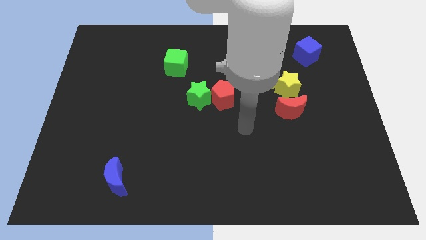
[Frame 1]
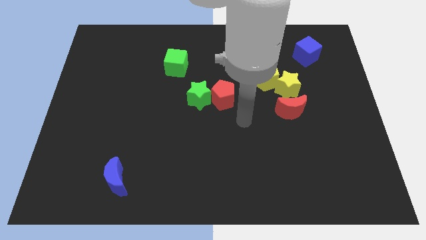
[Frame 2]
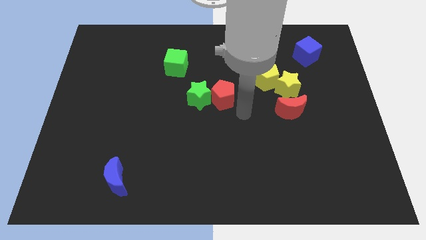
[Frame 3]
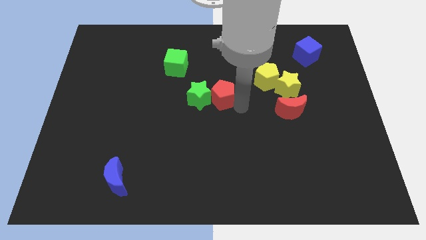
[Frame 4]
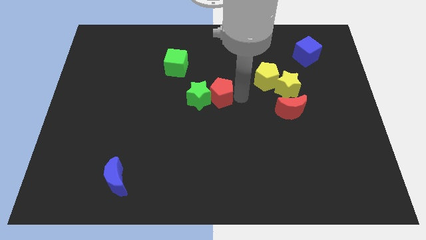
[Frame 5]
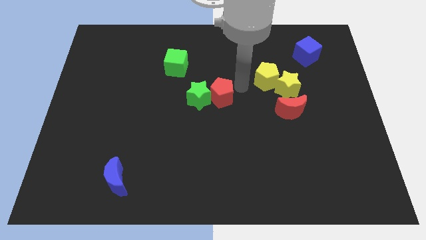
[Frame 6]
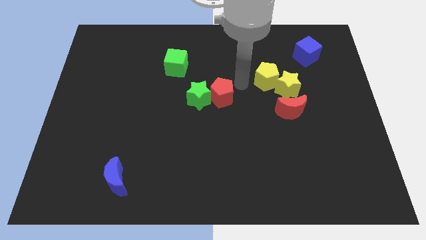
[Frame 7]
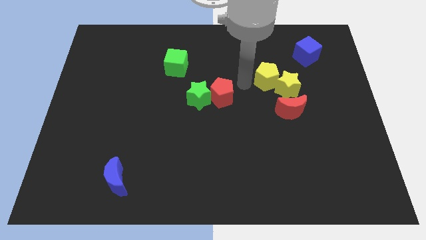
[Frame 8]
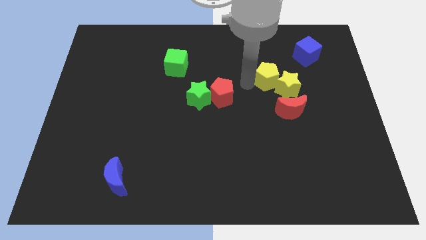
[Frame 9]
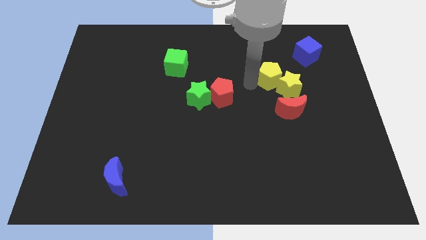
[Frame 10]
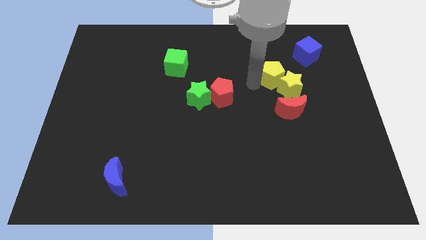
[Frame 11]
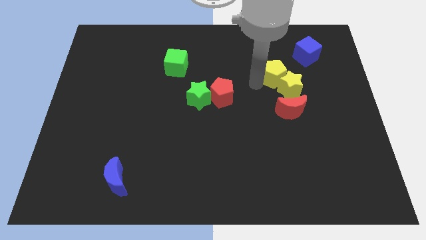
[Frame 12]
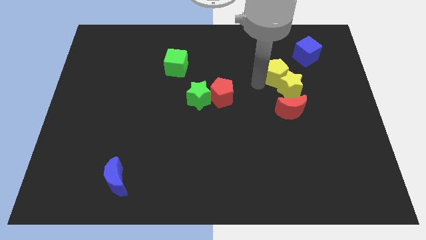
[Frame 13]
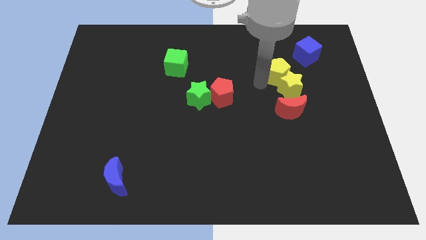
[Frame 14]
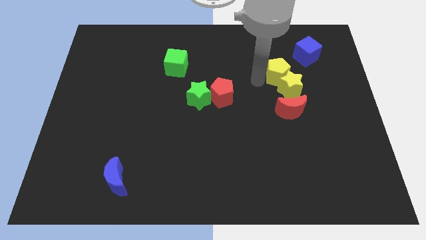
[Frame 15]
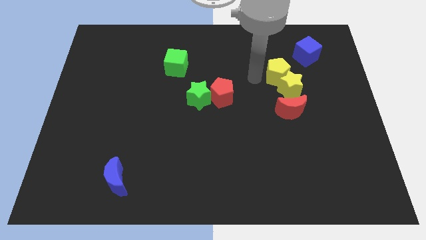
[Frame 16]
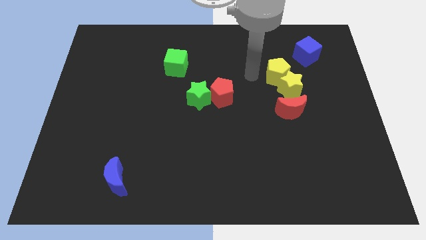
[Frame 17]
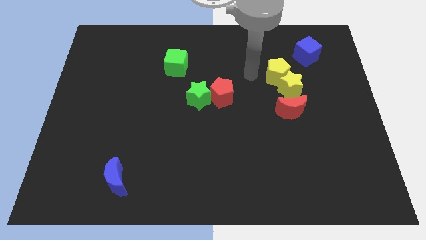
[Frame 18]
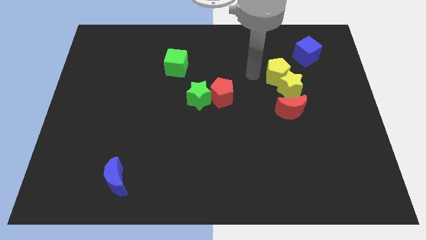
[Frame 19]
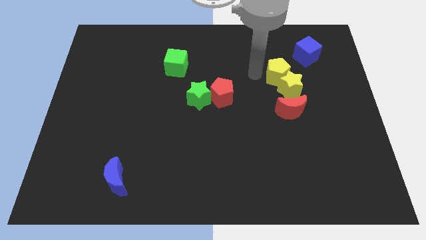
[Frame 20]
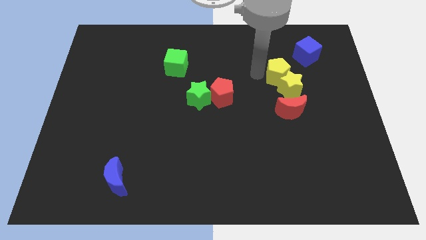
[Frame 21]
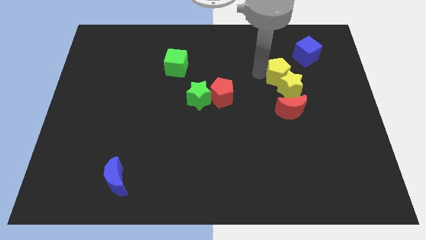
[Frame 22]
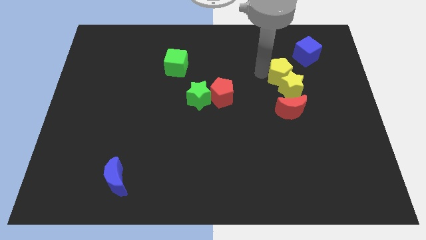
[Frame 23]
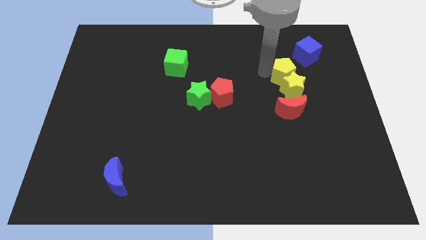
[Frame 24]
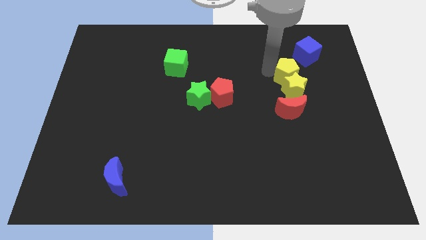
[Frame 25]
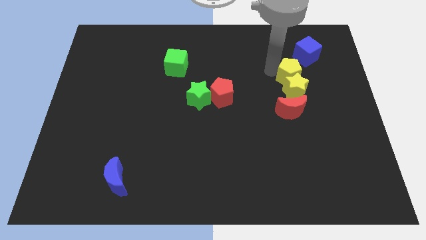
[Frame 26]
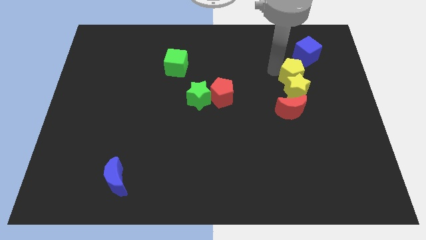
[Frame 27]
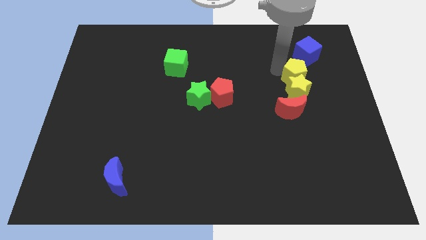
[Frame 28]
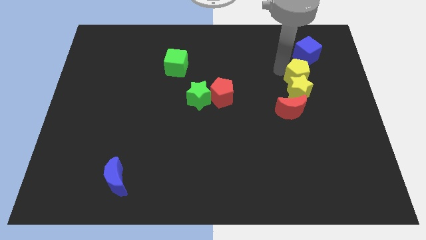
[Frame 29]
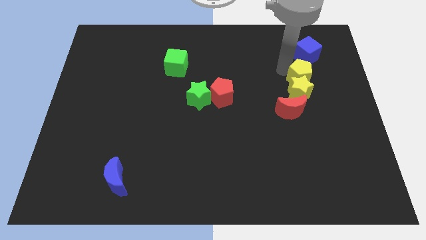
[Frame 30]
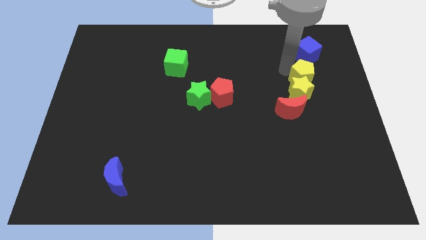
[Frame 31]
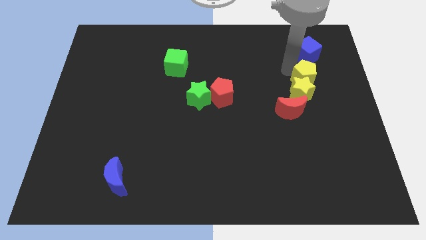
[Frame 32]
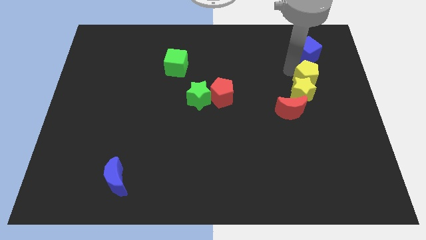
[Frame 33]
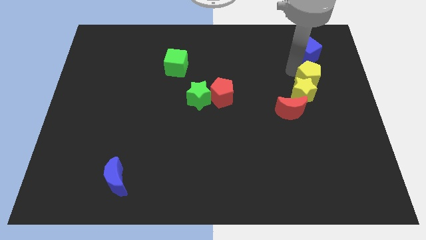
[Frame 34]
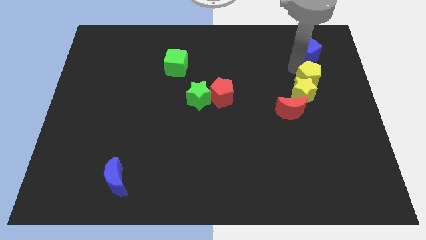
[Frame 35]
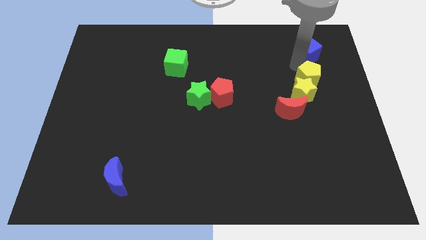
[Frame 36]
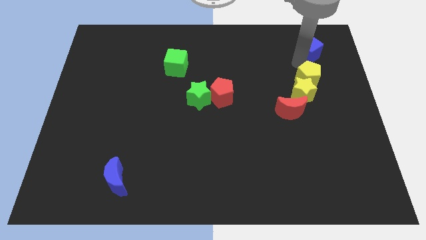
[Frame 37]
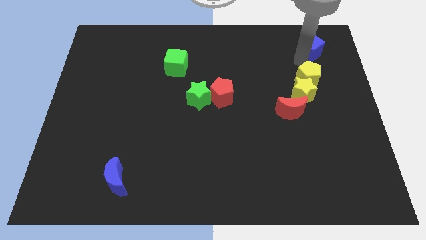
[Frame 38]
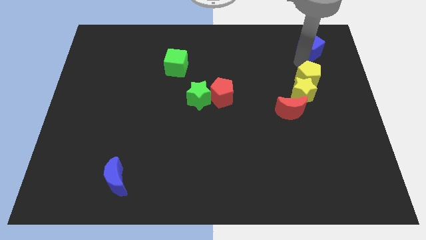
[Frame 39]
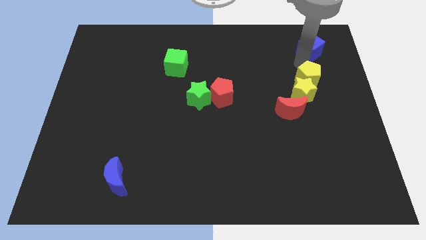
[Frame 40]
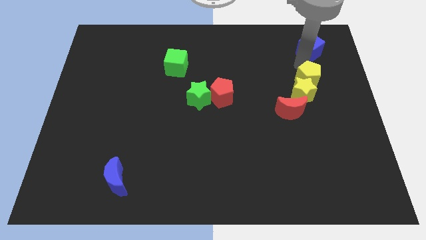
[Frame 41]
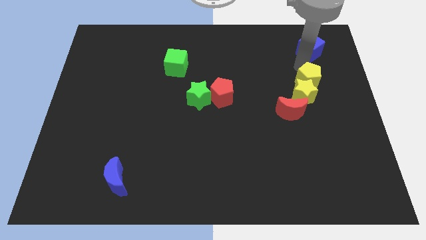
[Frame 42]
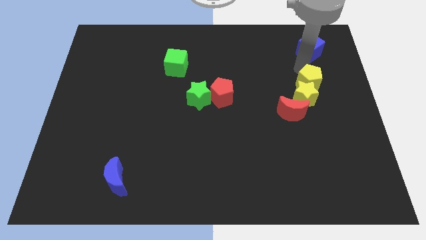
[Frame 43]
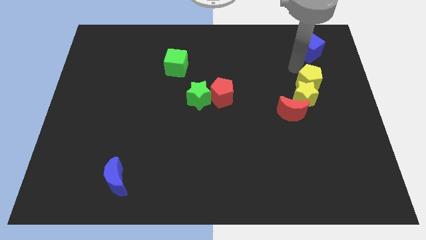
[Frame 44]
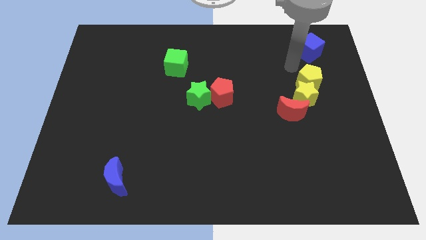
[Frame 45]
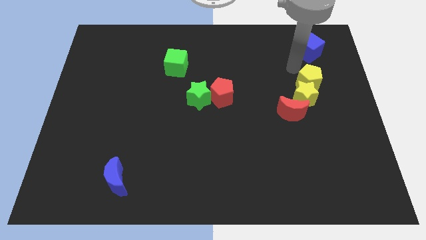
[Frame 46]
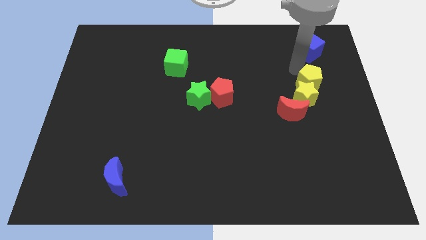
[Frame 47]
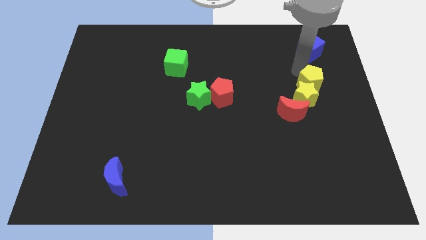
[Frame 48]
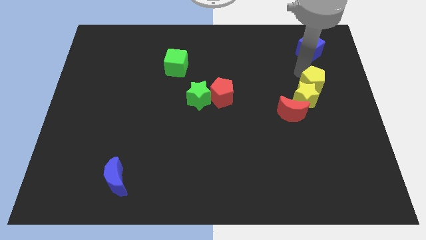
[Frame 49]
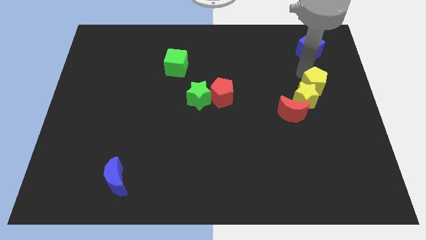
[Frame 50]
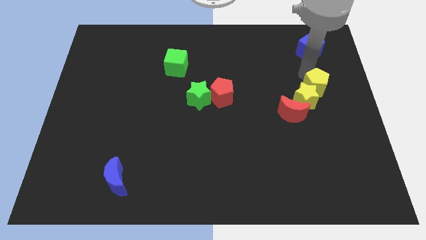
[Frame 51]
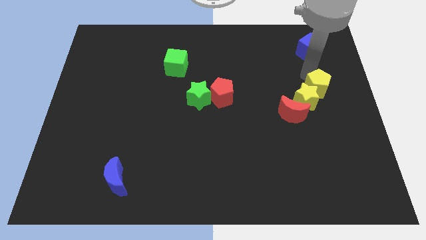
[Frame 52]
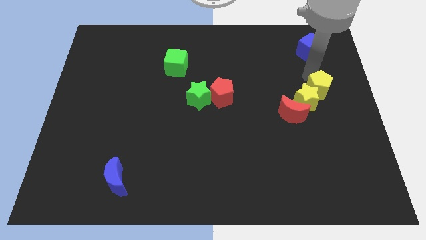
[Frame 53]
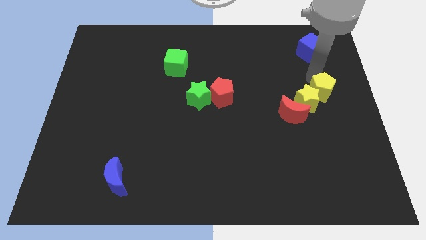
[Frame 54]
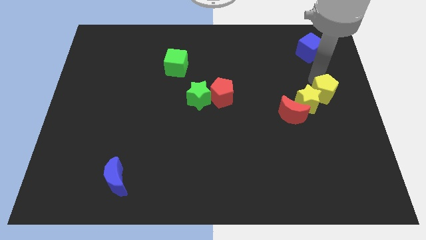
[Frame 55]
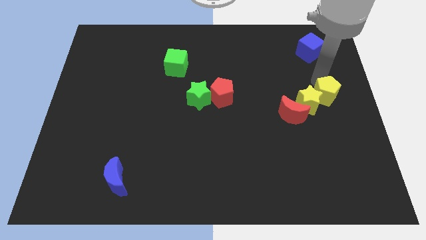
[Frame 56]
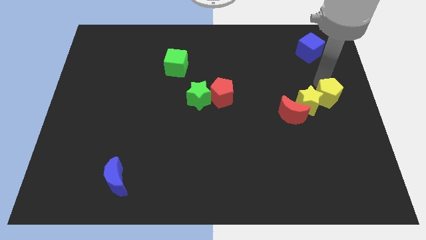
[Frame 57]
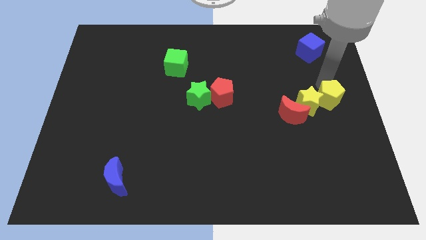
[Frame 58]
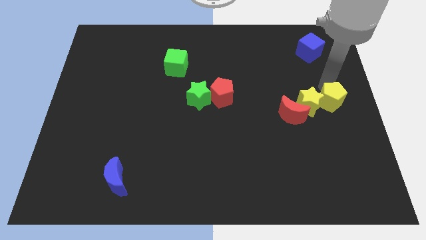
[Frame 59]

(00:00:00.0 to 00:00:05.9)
slide the yellow pentagon just right of the red moon

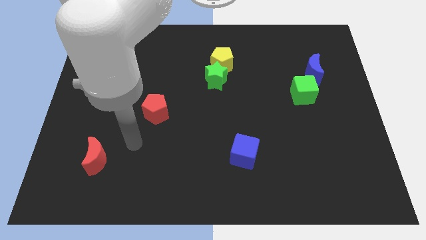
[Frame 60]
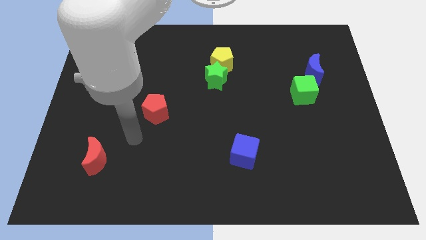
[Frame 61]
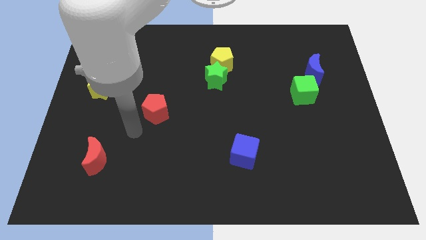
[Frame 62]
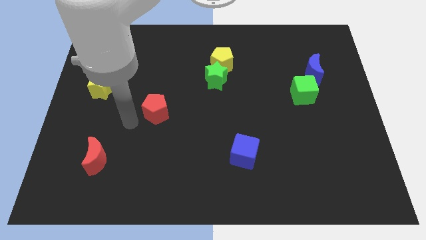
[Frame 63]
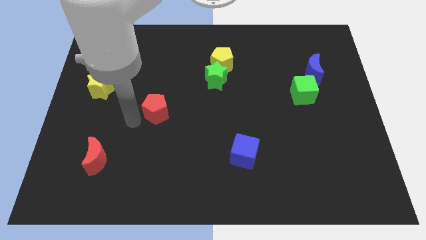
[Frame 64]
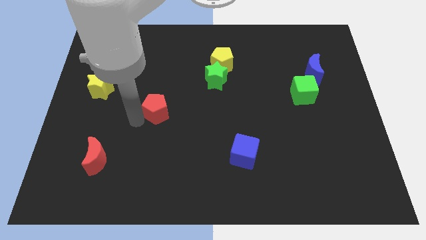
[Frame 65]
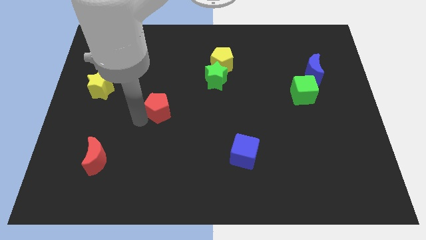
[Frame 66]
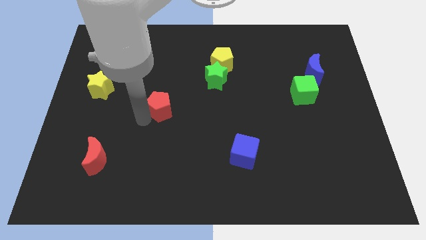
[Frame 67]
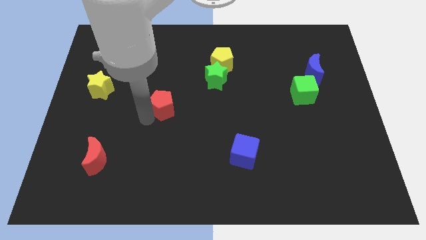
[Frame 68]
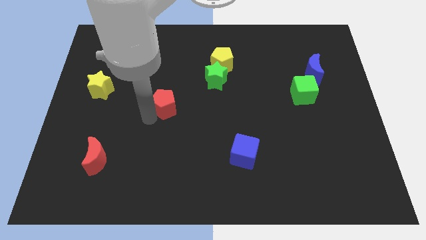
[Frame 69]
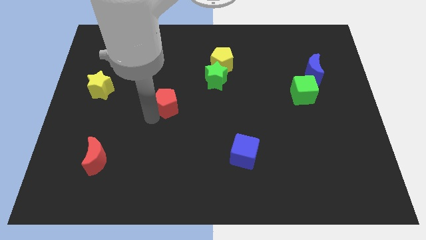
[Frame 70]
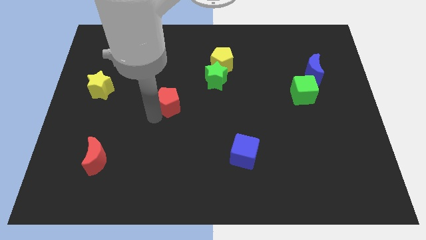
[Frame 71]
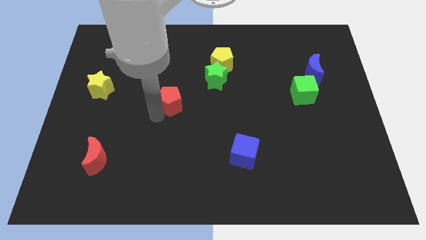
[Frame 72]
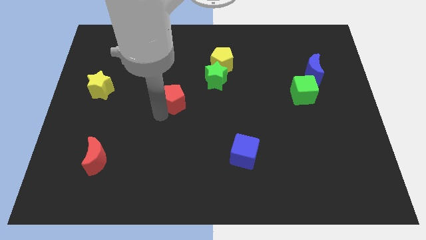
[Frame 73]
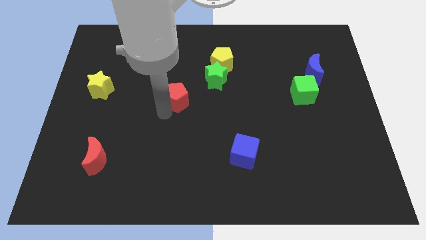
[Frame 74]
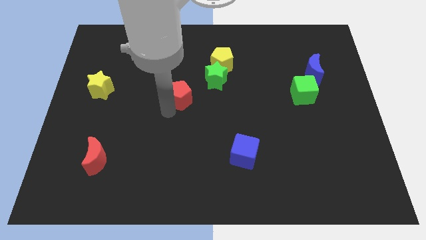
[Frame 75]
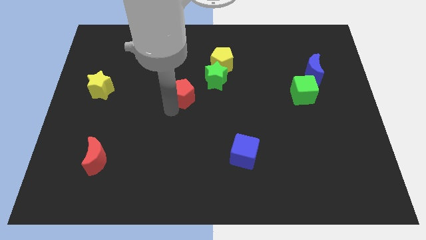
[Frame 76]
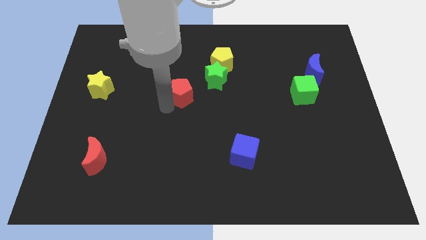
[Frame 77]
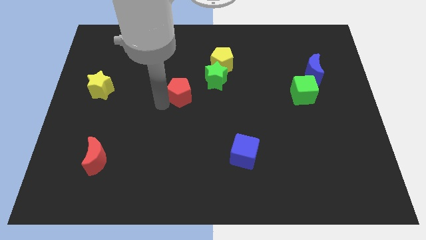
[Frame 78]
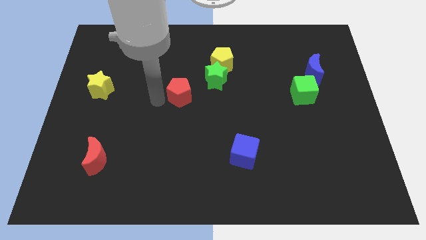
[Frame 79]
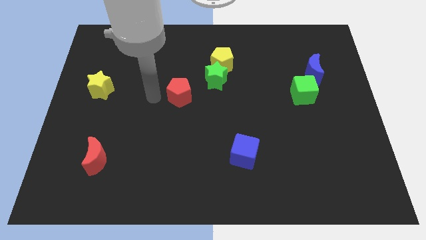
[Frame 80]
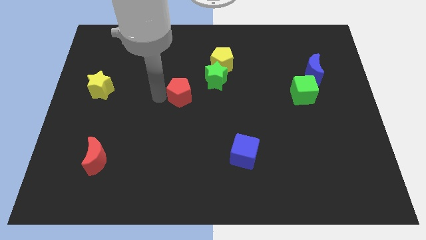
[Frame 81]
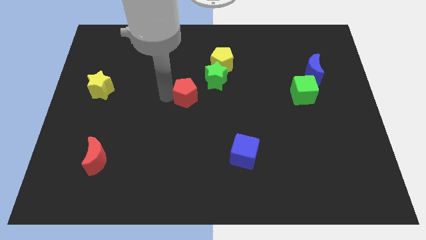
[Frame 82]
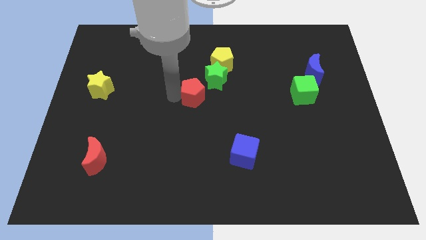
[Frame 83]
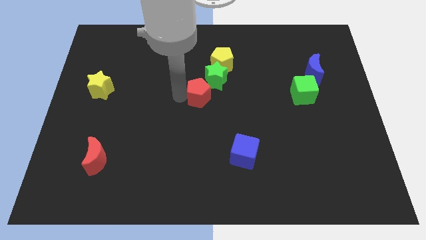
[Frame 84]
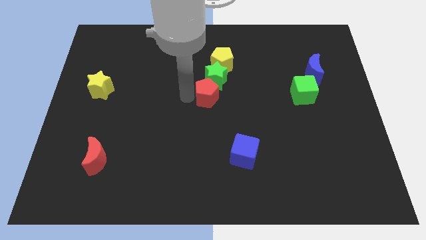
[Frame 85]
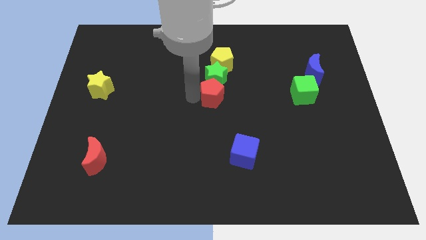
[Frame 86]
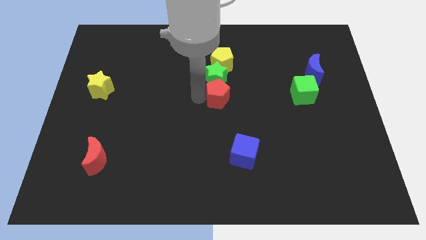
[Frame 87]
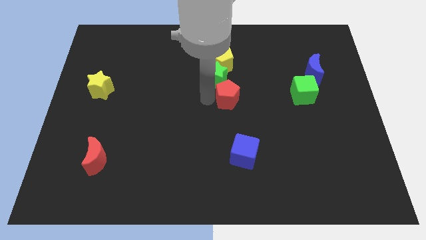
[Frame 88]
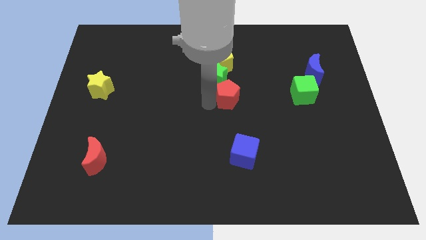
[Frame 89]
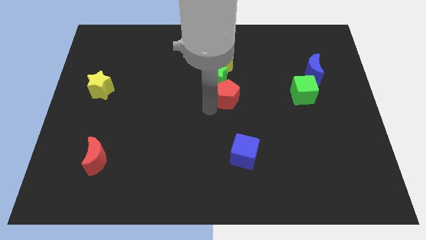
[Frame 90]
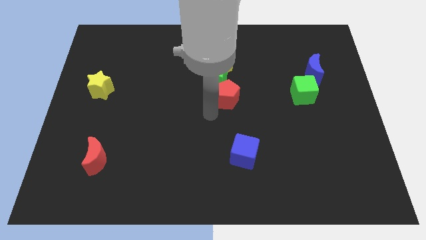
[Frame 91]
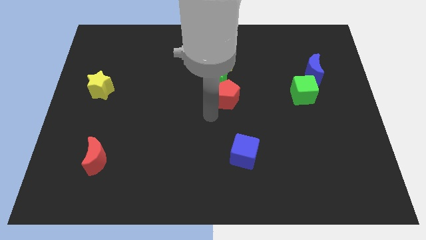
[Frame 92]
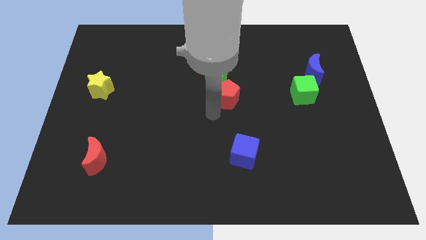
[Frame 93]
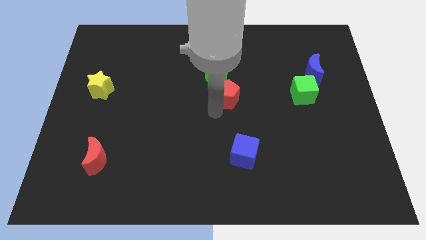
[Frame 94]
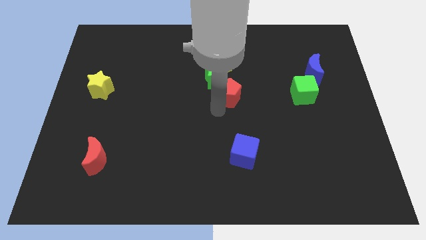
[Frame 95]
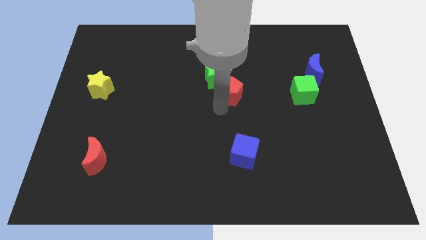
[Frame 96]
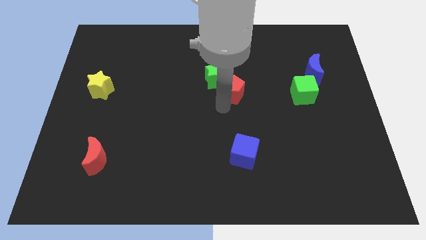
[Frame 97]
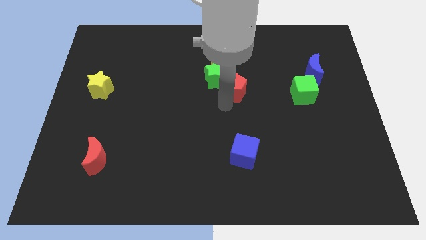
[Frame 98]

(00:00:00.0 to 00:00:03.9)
slide the red pentagon to the bottom right side of the yellow pentagon
